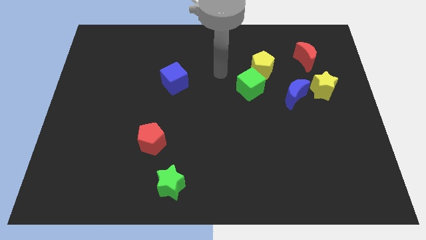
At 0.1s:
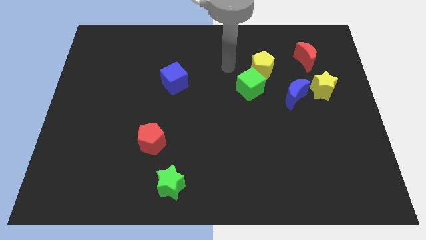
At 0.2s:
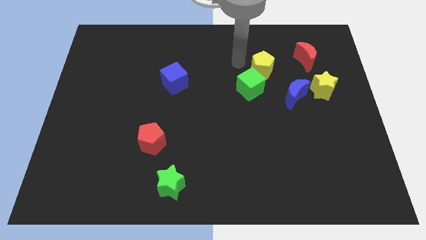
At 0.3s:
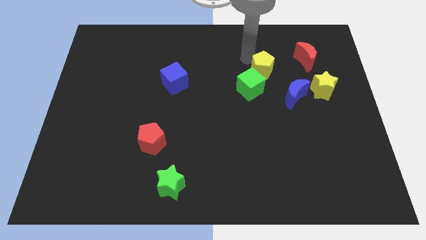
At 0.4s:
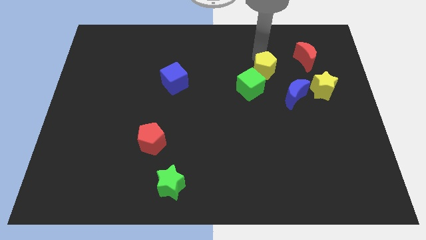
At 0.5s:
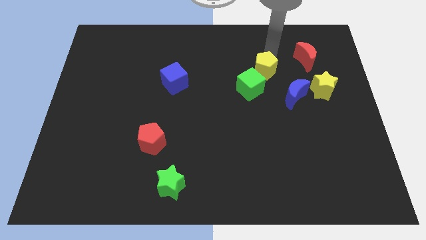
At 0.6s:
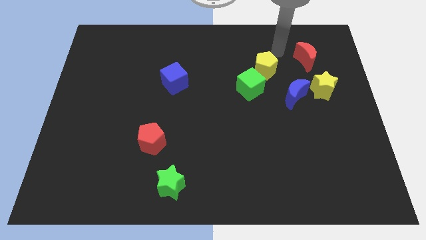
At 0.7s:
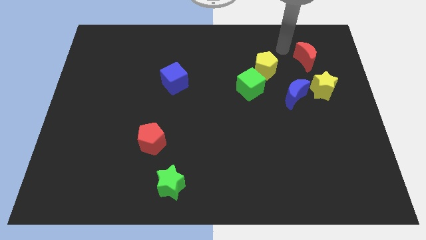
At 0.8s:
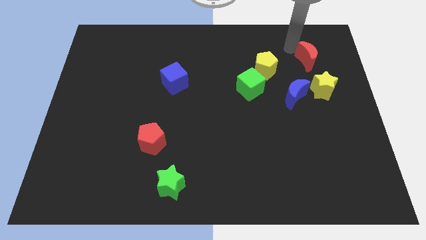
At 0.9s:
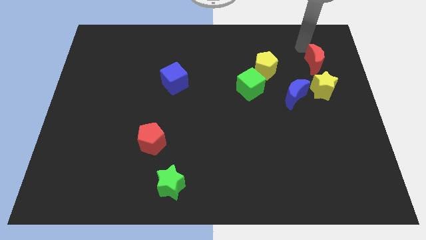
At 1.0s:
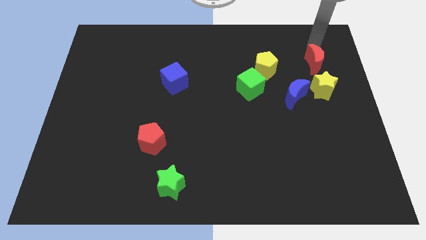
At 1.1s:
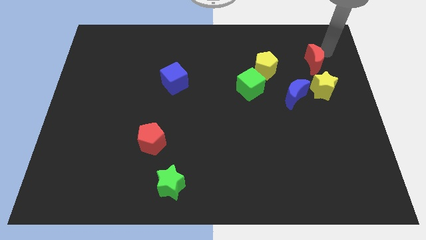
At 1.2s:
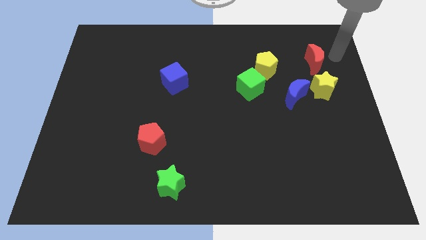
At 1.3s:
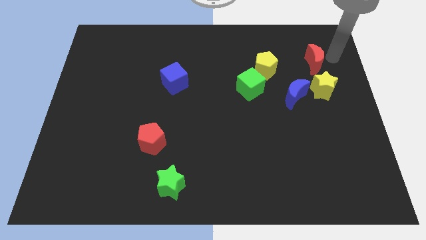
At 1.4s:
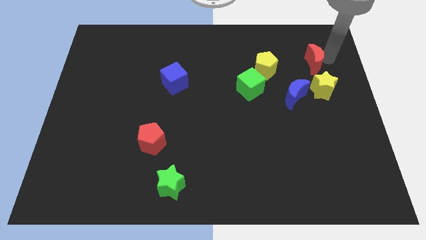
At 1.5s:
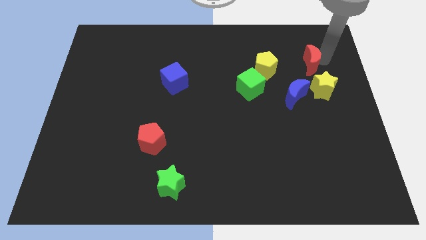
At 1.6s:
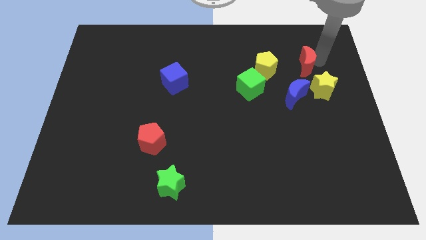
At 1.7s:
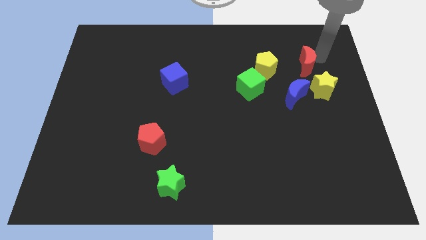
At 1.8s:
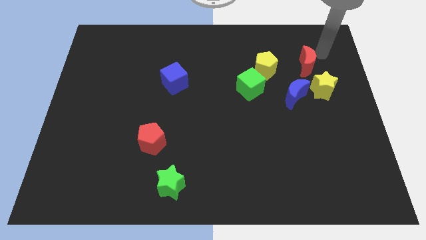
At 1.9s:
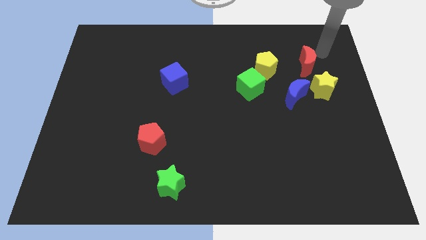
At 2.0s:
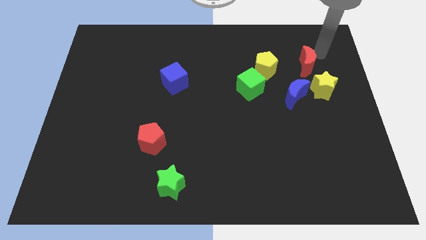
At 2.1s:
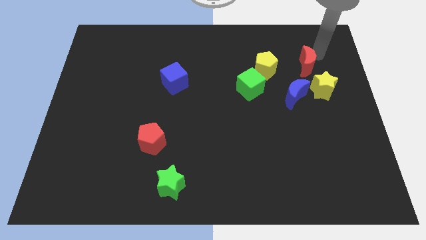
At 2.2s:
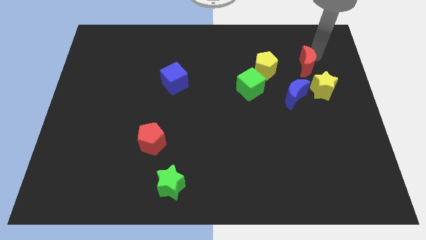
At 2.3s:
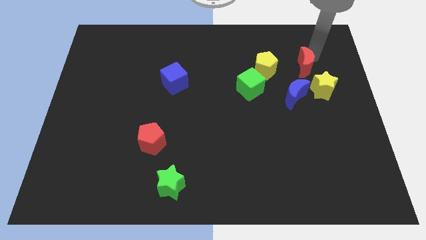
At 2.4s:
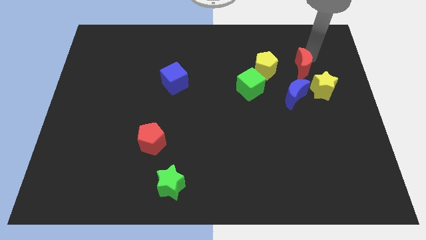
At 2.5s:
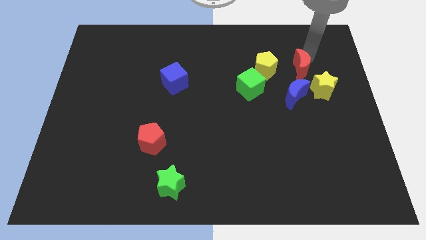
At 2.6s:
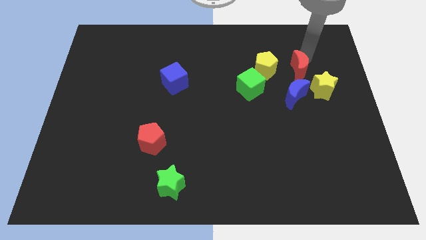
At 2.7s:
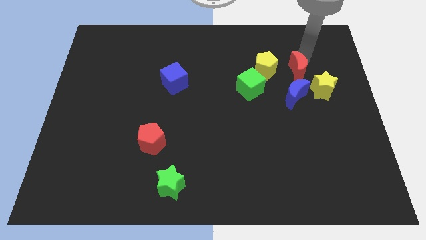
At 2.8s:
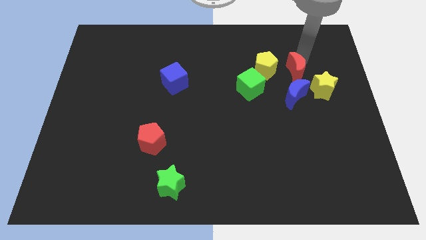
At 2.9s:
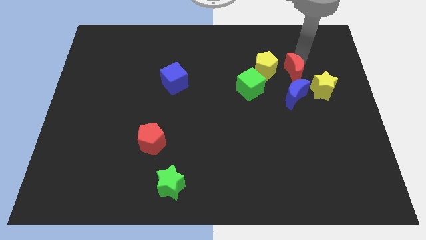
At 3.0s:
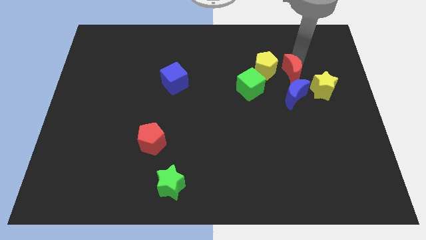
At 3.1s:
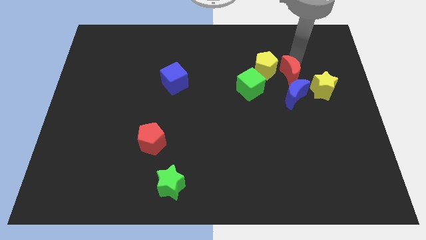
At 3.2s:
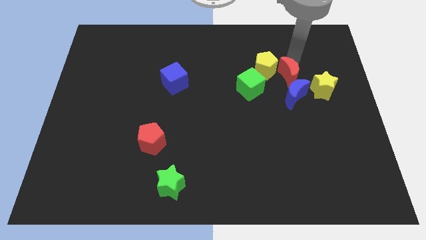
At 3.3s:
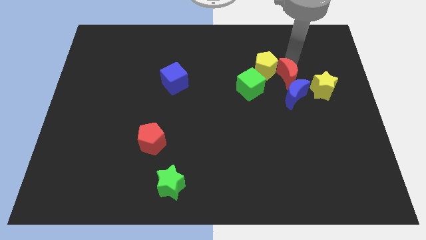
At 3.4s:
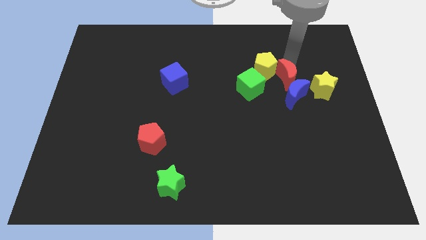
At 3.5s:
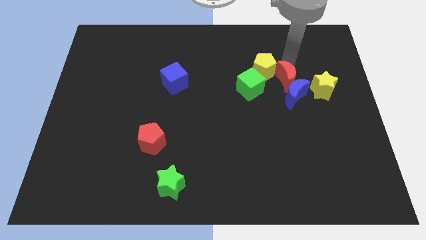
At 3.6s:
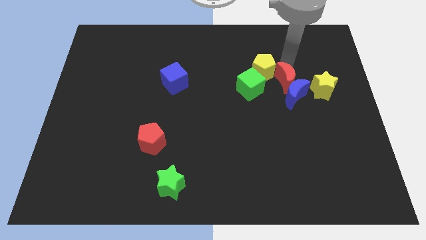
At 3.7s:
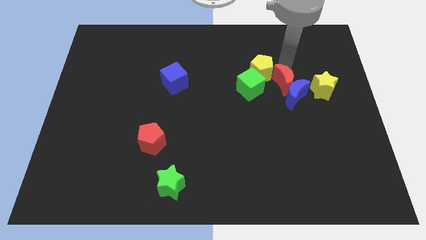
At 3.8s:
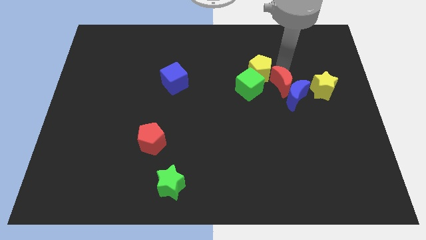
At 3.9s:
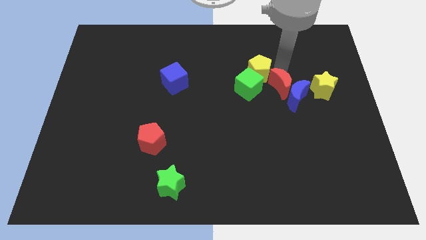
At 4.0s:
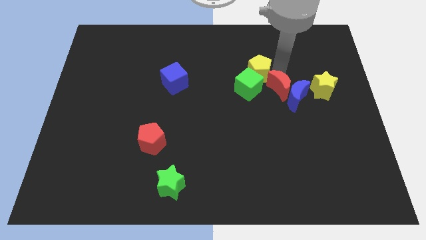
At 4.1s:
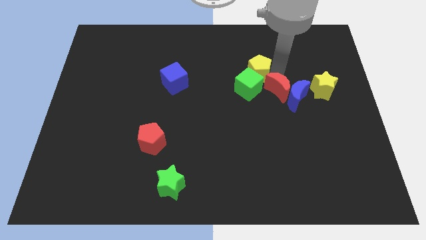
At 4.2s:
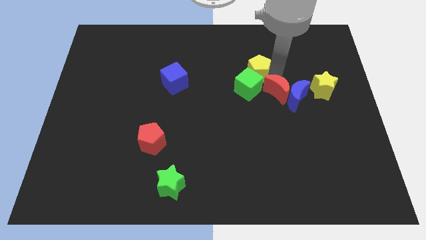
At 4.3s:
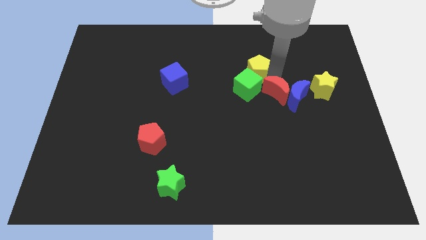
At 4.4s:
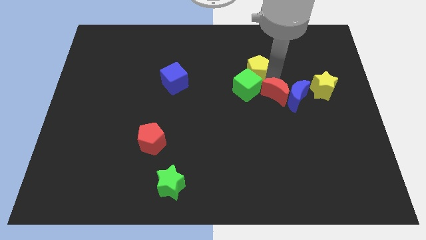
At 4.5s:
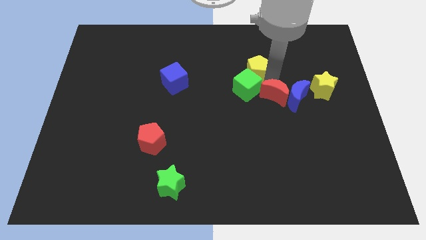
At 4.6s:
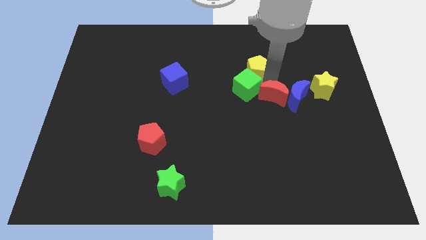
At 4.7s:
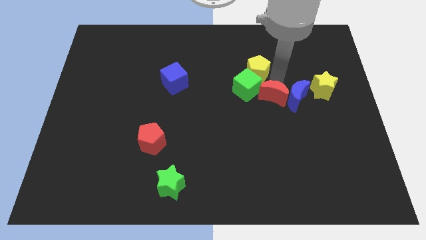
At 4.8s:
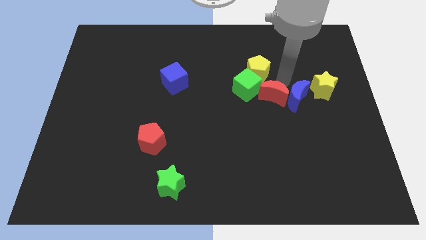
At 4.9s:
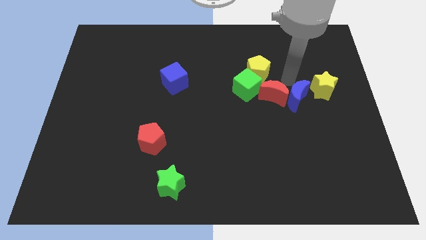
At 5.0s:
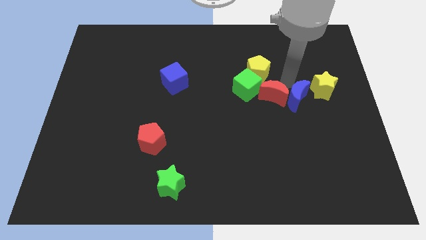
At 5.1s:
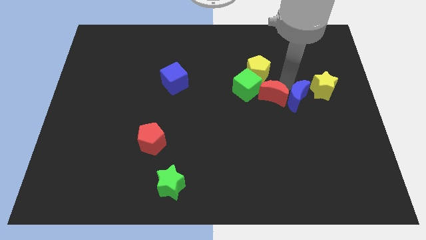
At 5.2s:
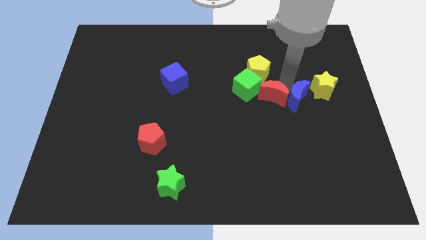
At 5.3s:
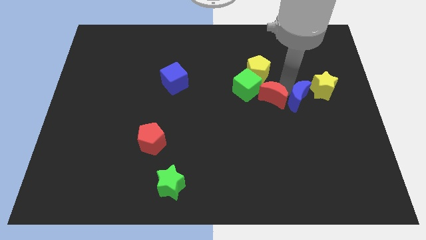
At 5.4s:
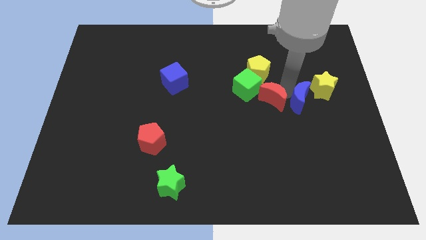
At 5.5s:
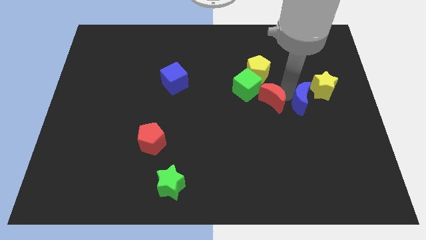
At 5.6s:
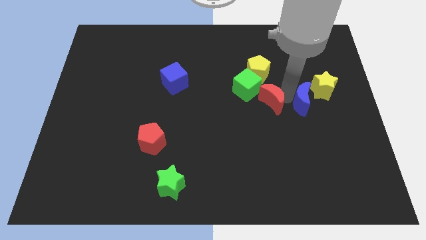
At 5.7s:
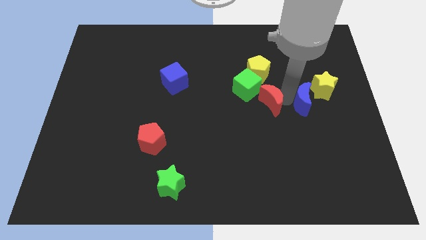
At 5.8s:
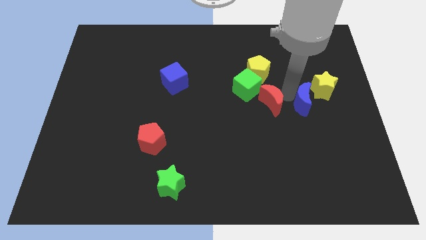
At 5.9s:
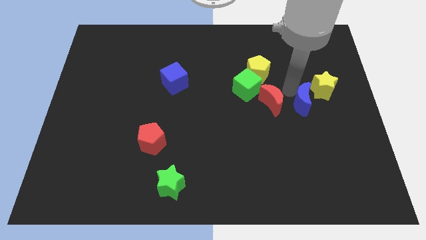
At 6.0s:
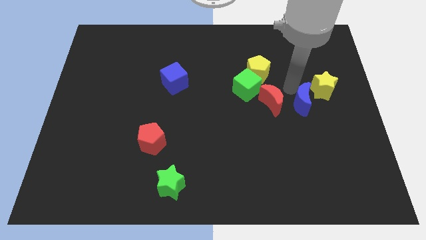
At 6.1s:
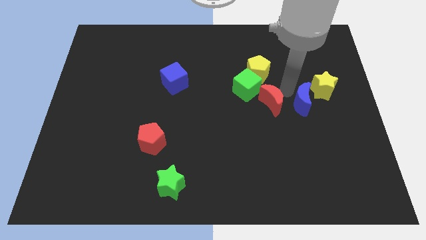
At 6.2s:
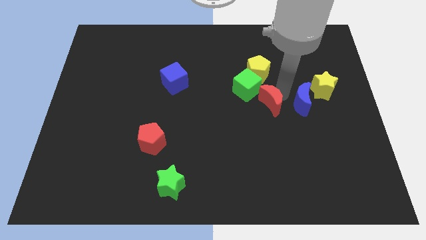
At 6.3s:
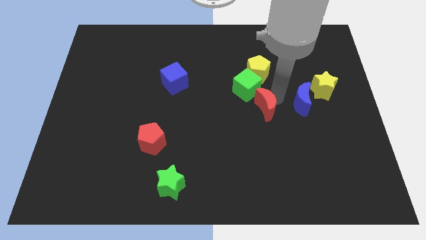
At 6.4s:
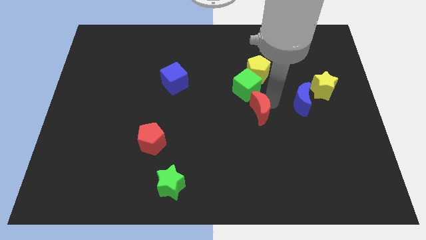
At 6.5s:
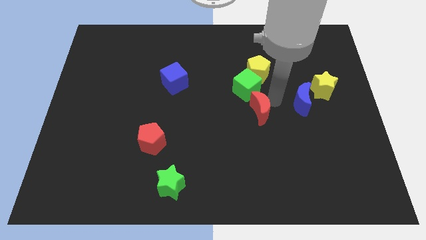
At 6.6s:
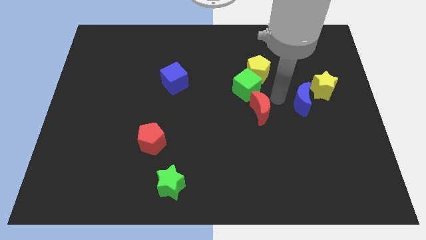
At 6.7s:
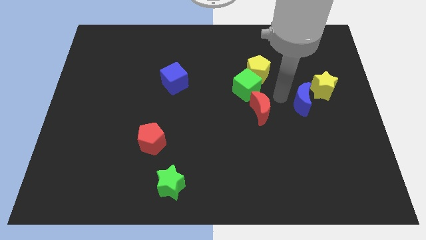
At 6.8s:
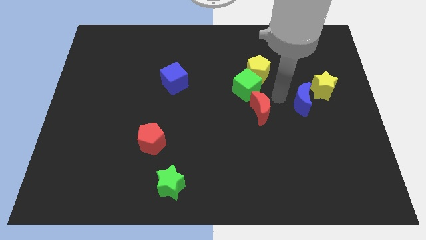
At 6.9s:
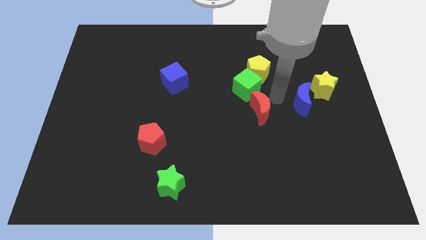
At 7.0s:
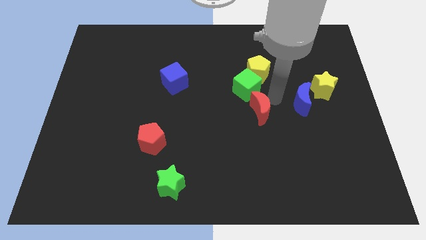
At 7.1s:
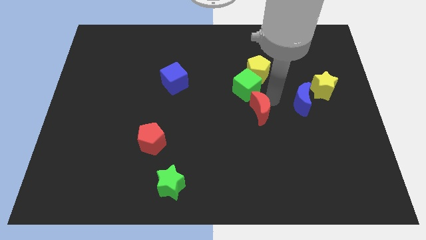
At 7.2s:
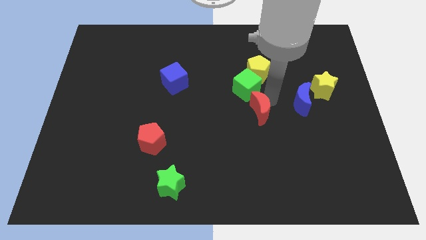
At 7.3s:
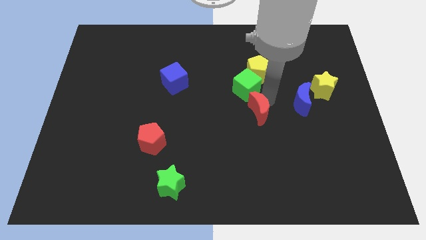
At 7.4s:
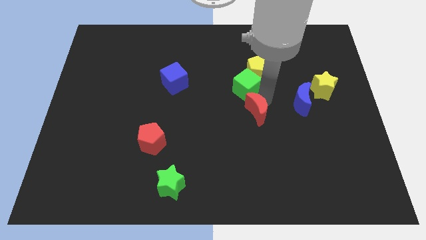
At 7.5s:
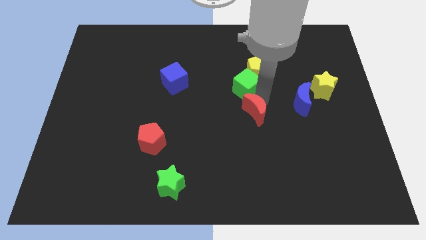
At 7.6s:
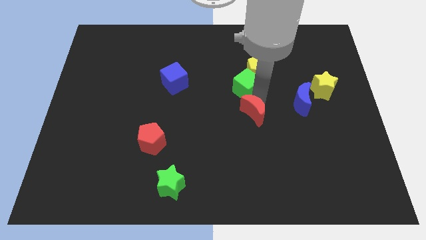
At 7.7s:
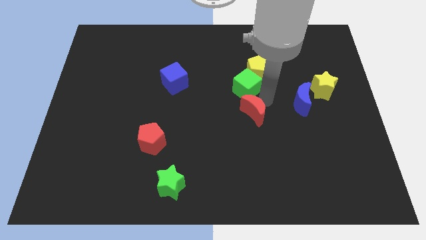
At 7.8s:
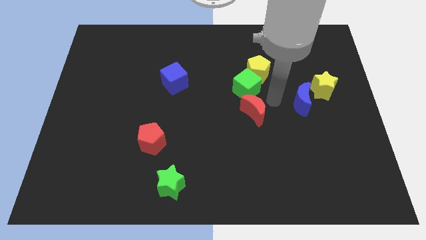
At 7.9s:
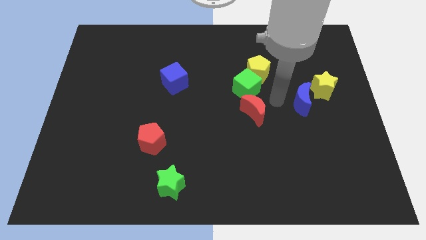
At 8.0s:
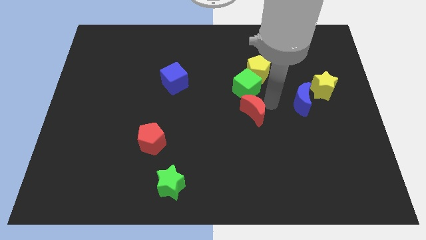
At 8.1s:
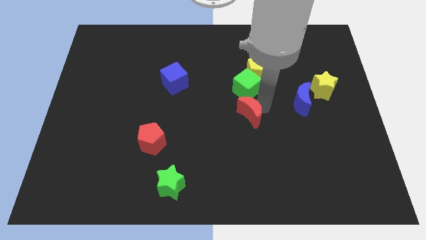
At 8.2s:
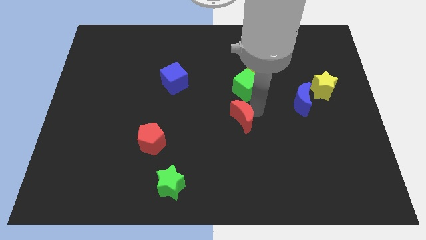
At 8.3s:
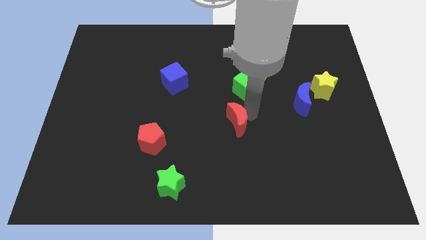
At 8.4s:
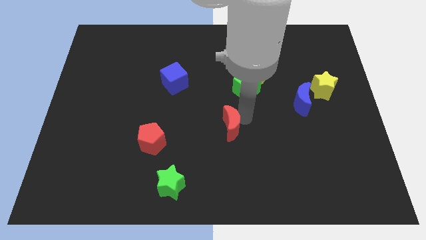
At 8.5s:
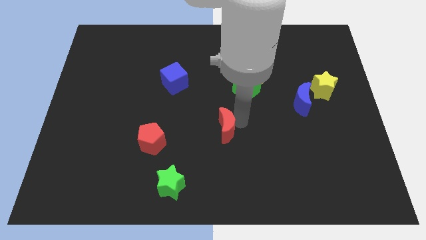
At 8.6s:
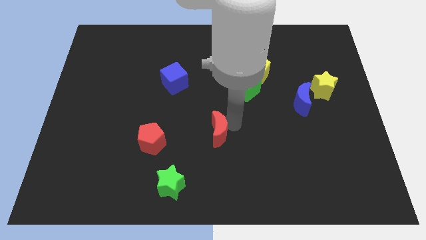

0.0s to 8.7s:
push the red moon right of the red pentagon
